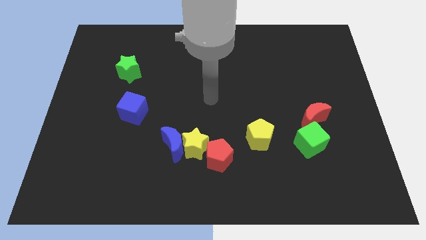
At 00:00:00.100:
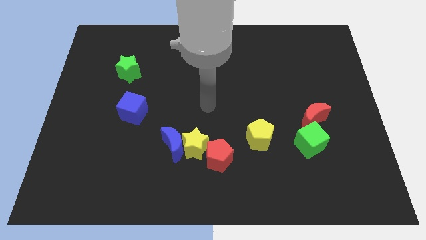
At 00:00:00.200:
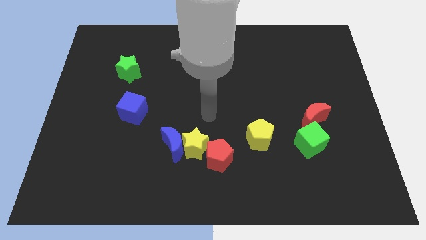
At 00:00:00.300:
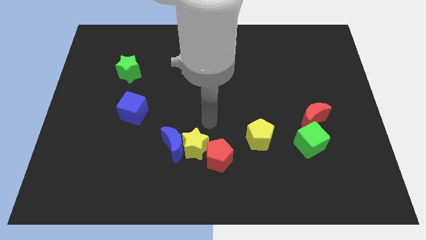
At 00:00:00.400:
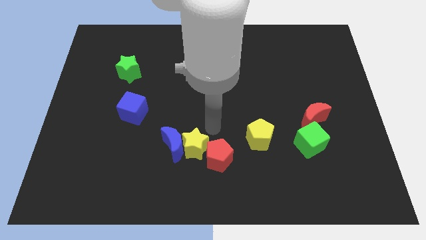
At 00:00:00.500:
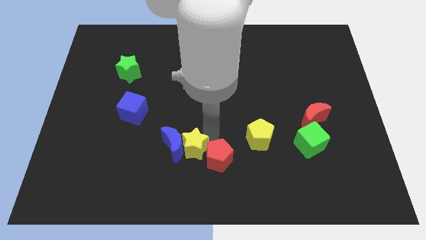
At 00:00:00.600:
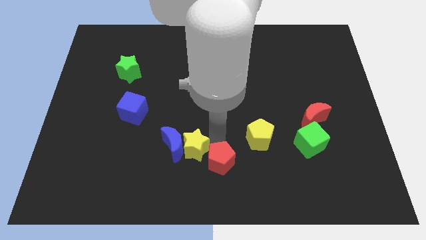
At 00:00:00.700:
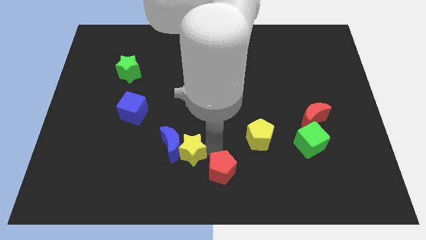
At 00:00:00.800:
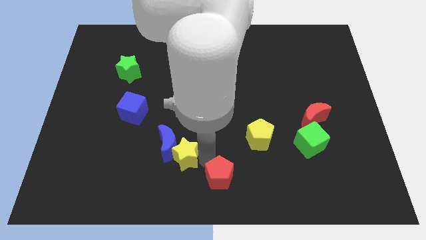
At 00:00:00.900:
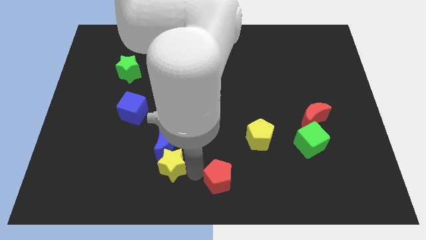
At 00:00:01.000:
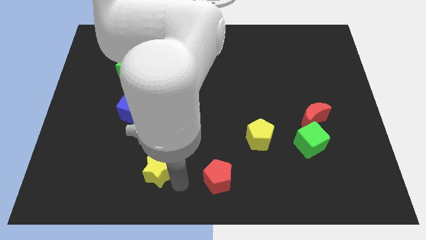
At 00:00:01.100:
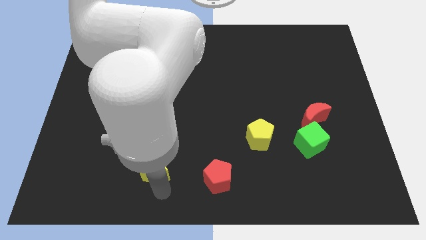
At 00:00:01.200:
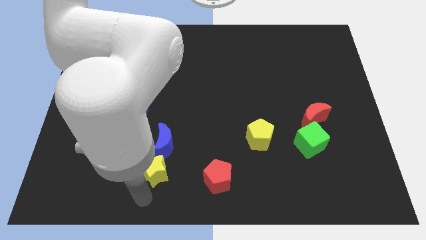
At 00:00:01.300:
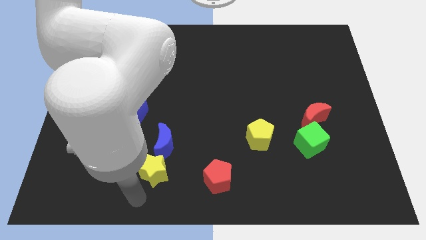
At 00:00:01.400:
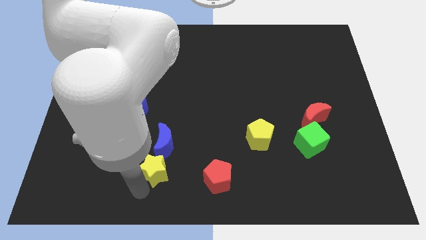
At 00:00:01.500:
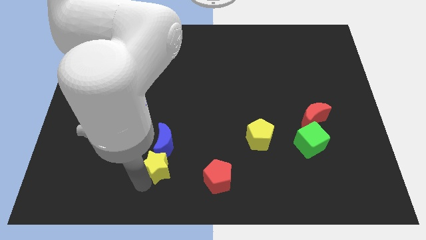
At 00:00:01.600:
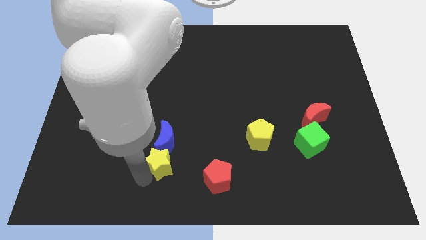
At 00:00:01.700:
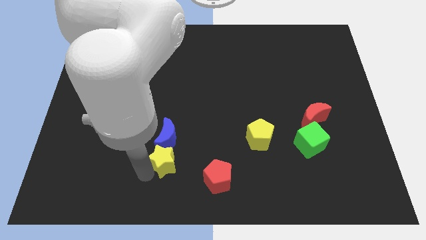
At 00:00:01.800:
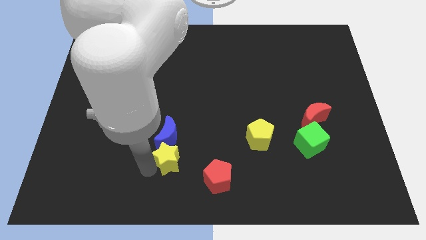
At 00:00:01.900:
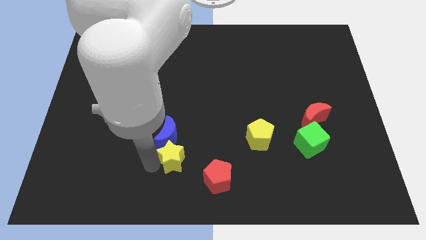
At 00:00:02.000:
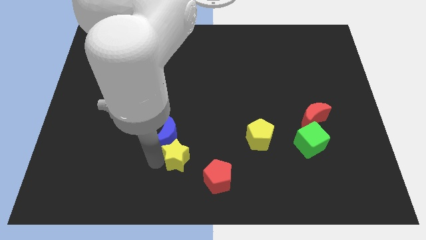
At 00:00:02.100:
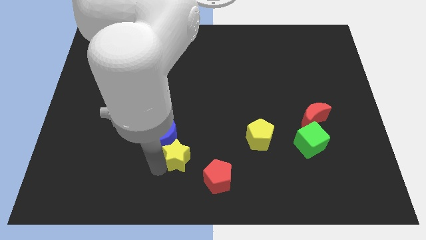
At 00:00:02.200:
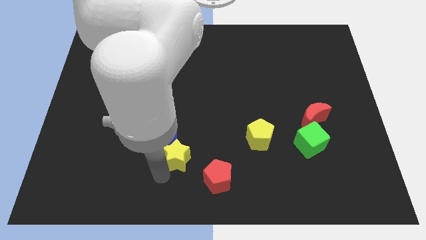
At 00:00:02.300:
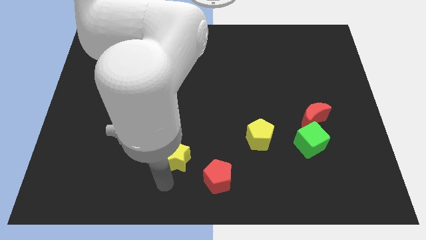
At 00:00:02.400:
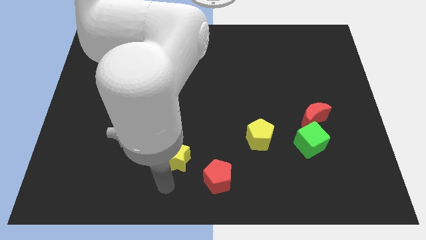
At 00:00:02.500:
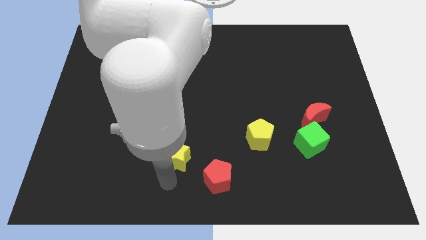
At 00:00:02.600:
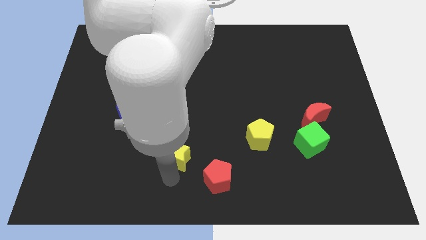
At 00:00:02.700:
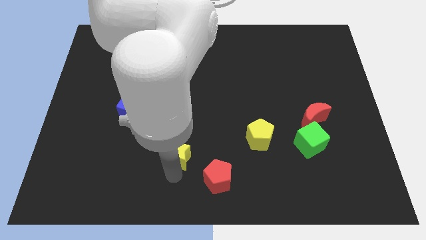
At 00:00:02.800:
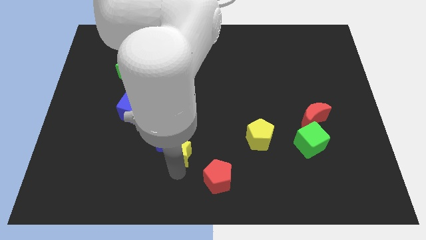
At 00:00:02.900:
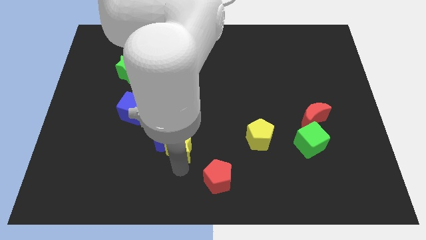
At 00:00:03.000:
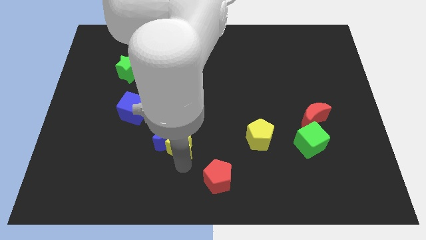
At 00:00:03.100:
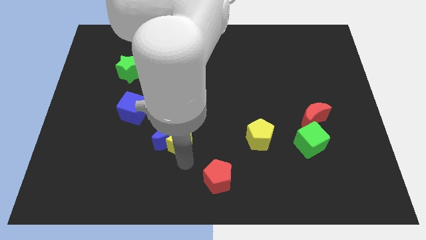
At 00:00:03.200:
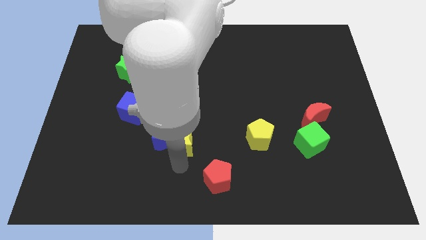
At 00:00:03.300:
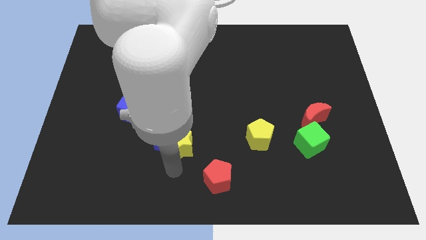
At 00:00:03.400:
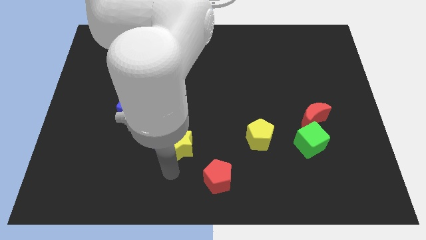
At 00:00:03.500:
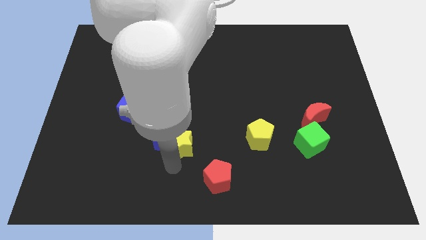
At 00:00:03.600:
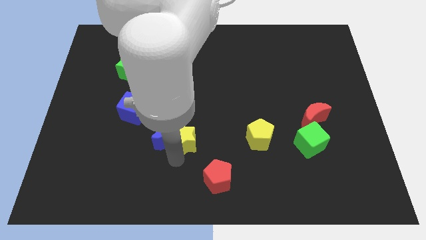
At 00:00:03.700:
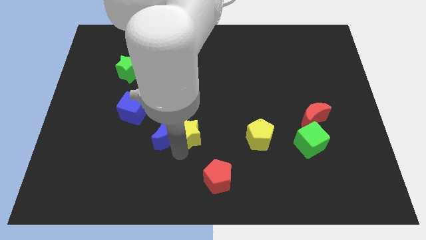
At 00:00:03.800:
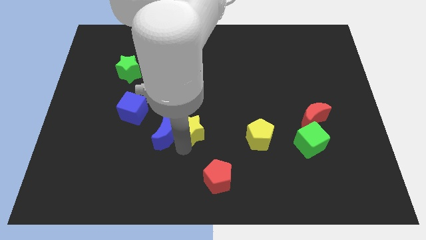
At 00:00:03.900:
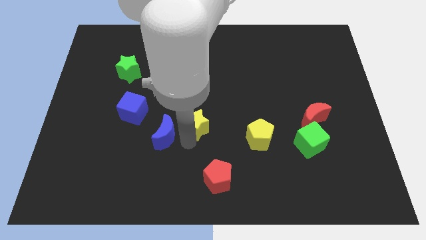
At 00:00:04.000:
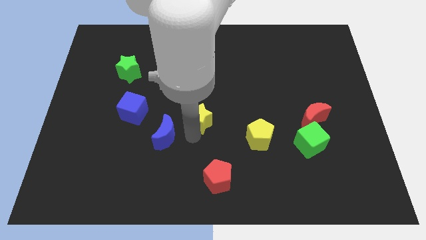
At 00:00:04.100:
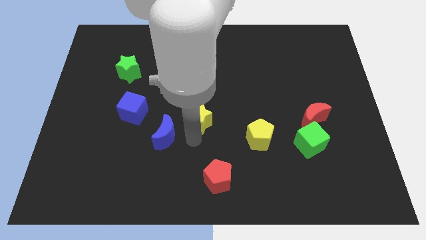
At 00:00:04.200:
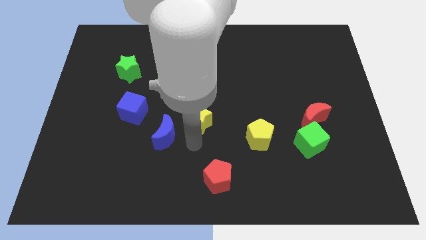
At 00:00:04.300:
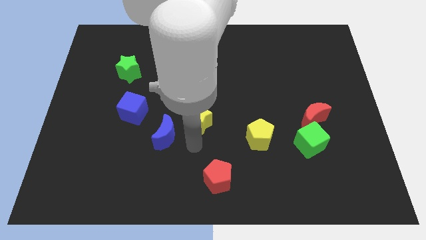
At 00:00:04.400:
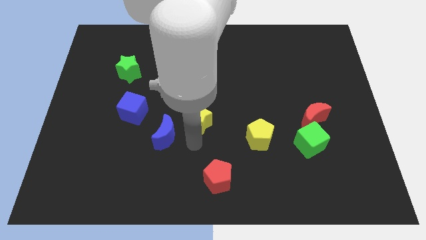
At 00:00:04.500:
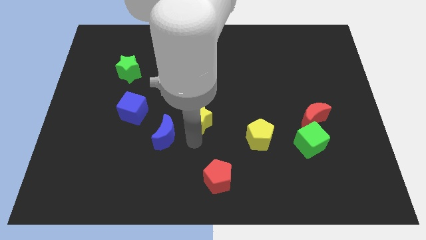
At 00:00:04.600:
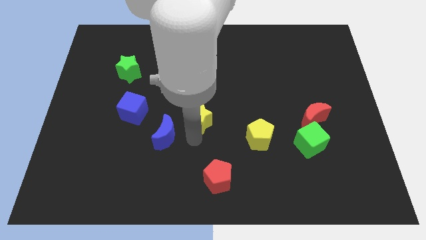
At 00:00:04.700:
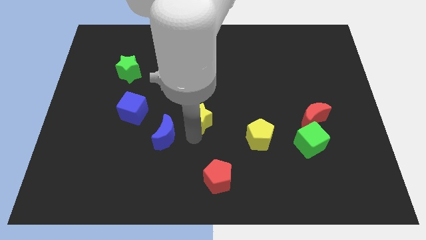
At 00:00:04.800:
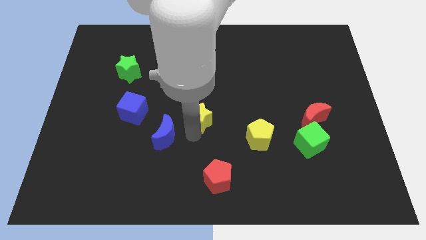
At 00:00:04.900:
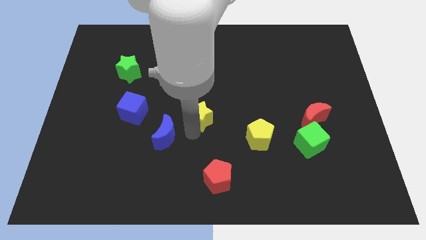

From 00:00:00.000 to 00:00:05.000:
move the yellow star away from the blue moon and red pentagon

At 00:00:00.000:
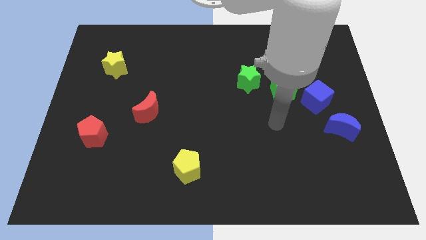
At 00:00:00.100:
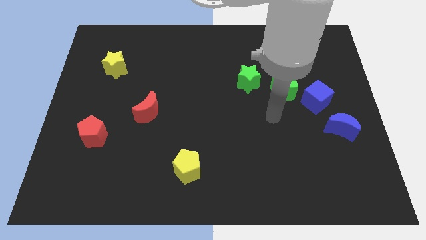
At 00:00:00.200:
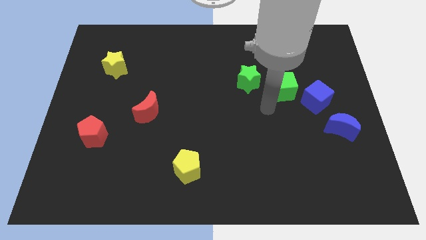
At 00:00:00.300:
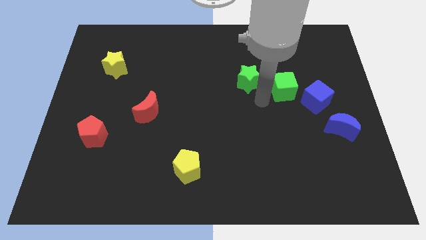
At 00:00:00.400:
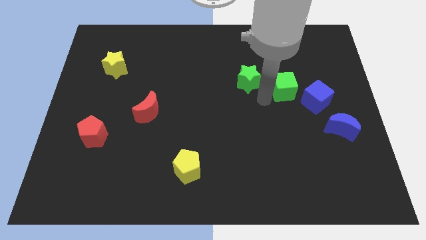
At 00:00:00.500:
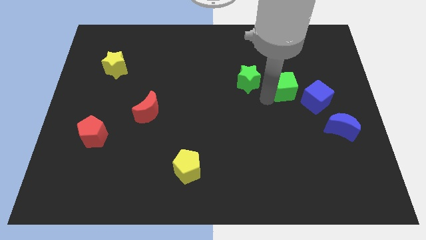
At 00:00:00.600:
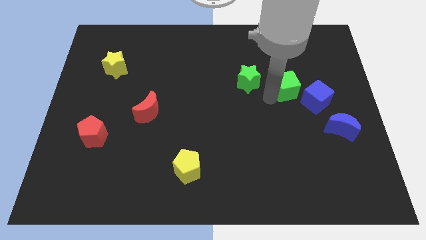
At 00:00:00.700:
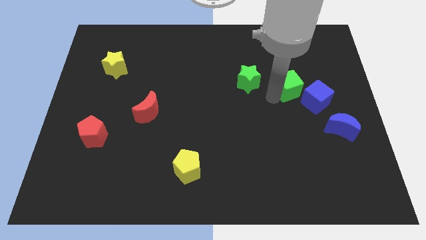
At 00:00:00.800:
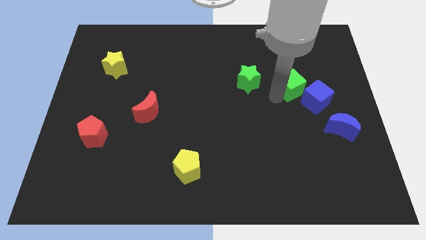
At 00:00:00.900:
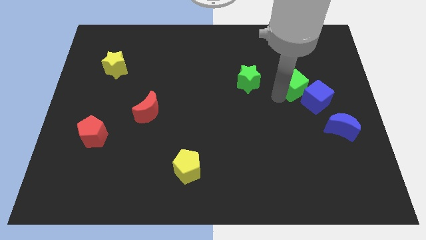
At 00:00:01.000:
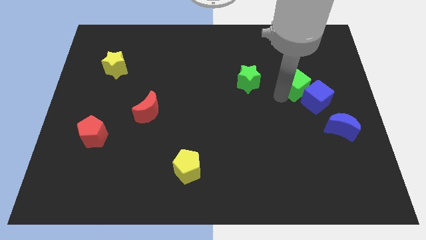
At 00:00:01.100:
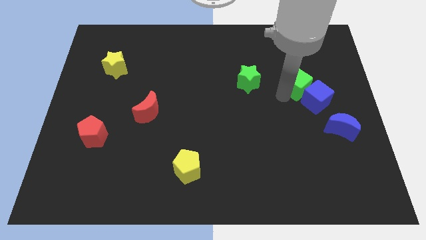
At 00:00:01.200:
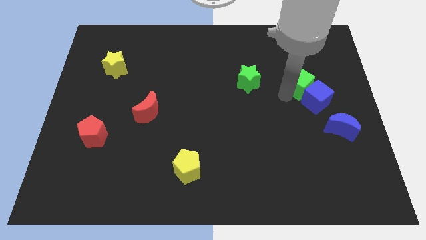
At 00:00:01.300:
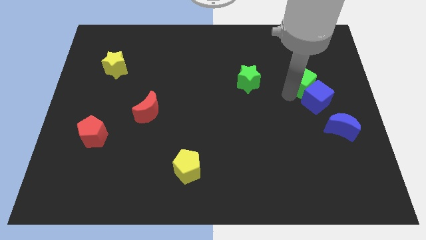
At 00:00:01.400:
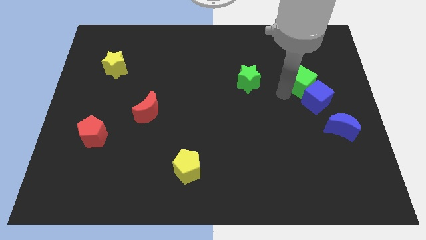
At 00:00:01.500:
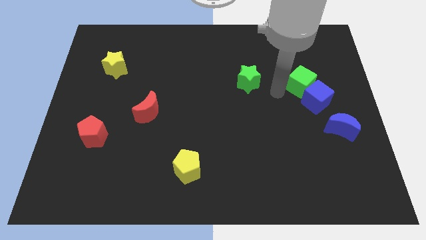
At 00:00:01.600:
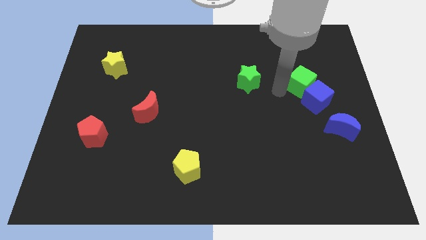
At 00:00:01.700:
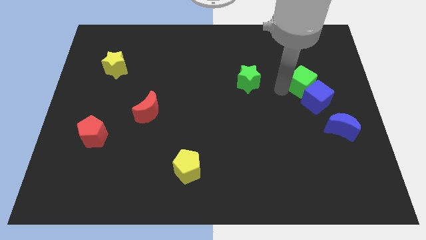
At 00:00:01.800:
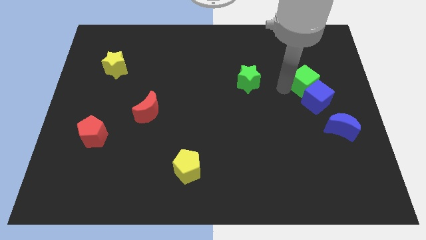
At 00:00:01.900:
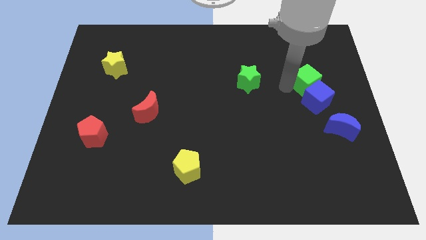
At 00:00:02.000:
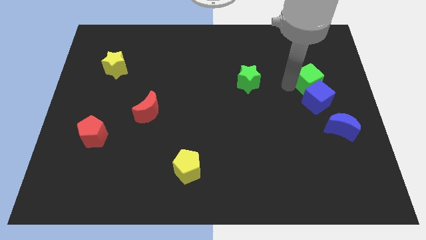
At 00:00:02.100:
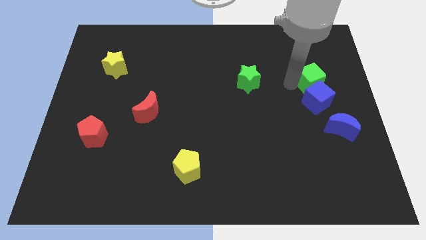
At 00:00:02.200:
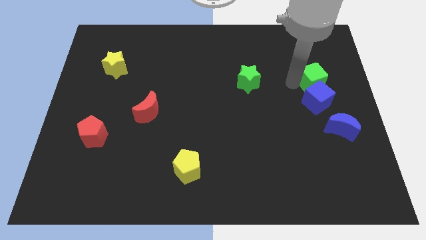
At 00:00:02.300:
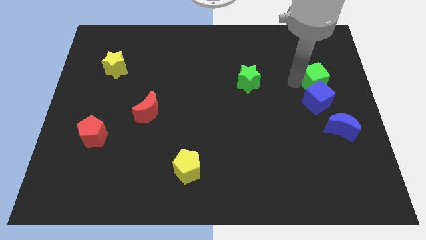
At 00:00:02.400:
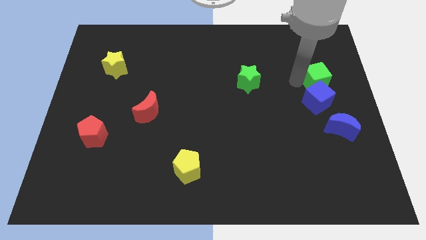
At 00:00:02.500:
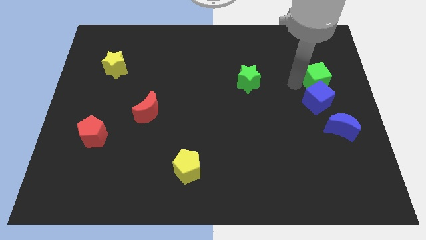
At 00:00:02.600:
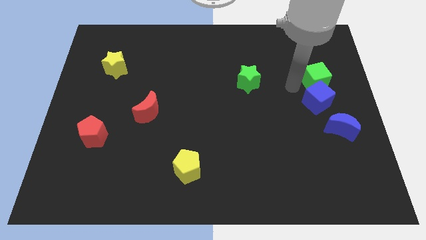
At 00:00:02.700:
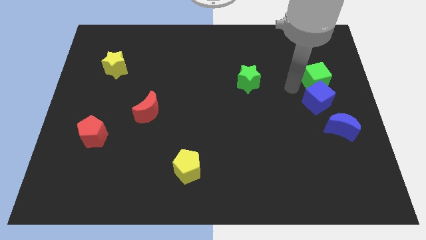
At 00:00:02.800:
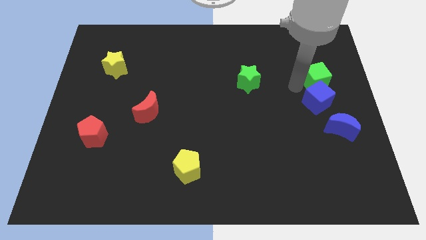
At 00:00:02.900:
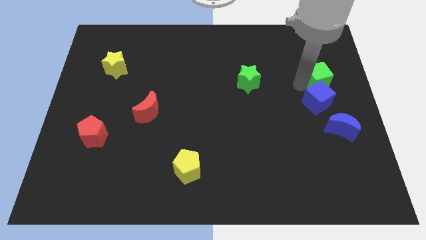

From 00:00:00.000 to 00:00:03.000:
pull the green cube apart from the blue cube and green star

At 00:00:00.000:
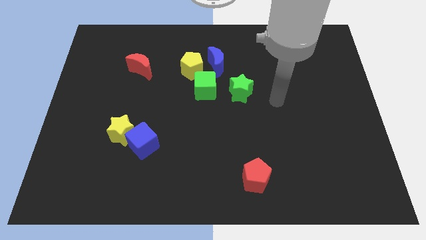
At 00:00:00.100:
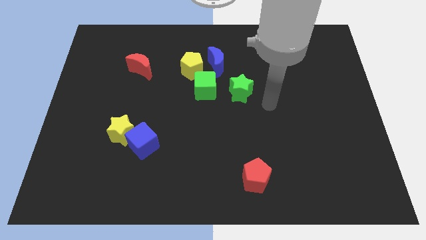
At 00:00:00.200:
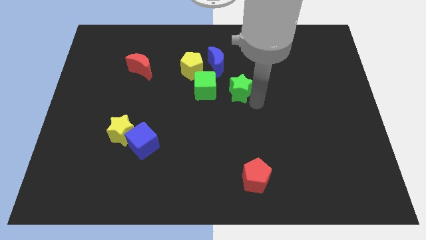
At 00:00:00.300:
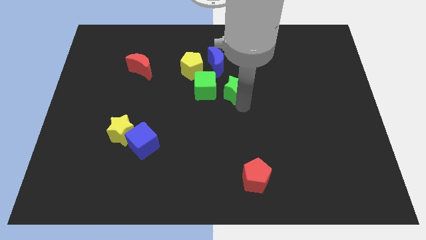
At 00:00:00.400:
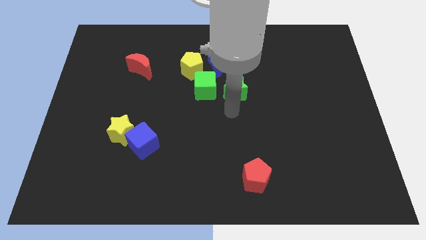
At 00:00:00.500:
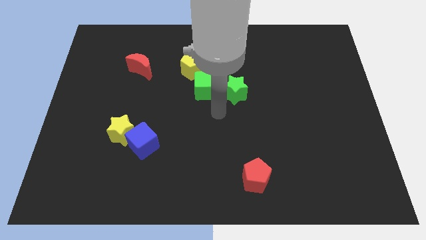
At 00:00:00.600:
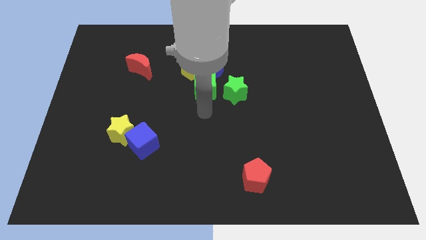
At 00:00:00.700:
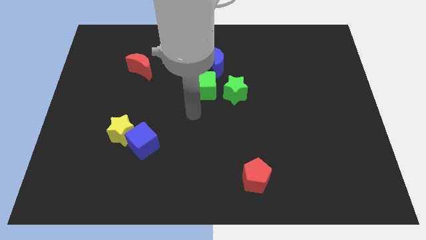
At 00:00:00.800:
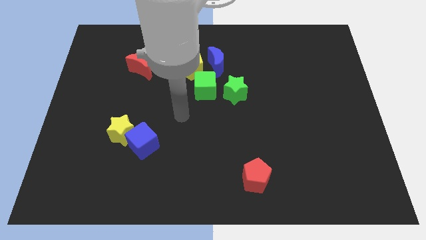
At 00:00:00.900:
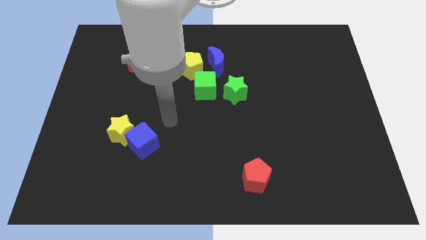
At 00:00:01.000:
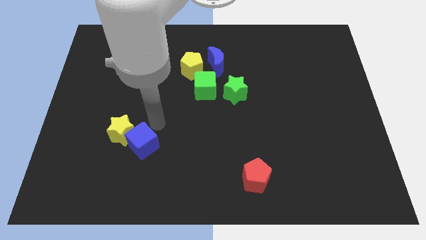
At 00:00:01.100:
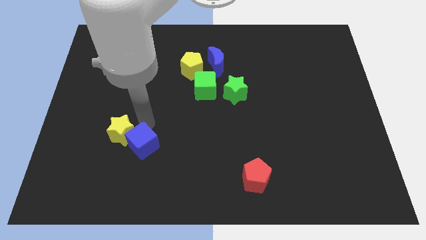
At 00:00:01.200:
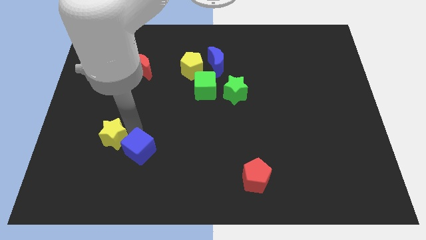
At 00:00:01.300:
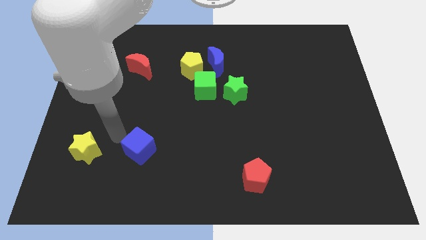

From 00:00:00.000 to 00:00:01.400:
pull the blue cube apart from the yellow star
